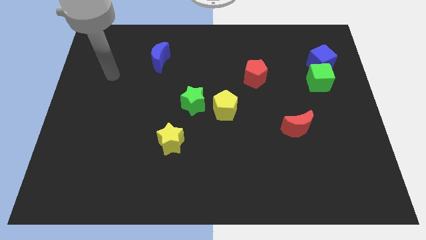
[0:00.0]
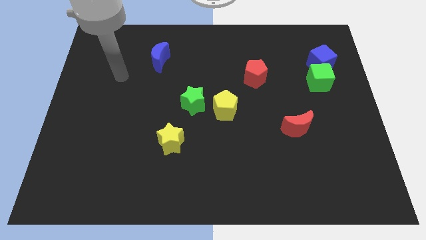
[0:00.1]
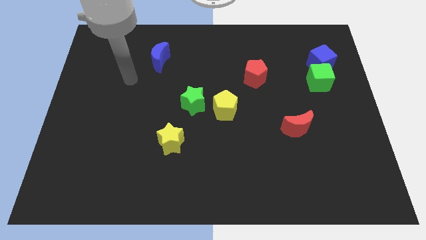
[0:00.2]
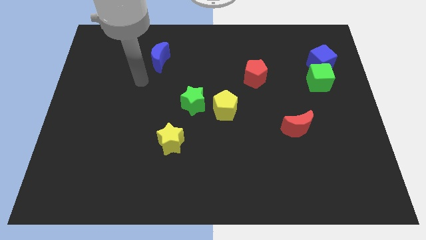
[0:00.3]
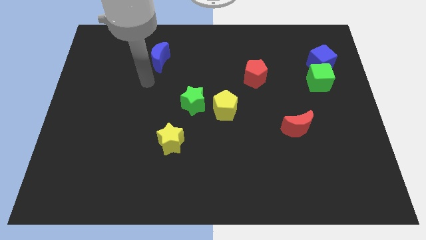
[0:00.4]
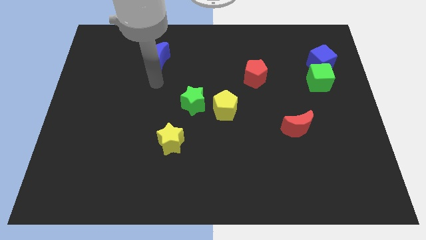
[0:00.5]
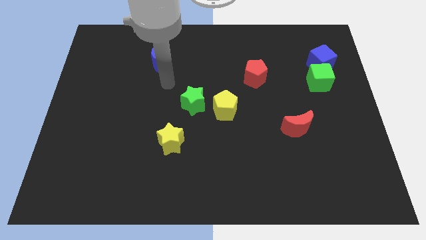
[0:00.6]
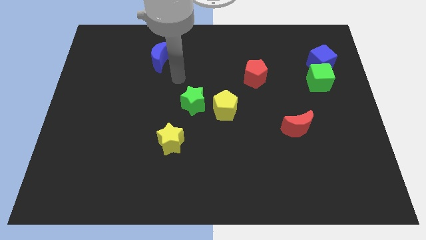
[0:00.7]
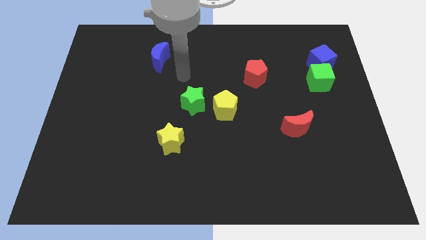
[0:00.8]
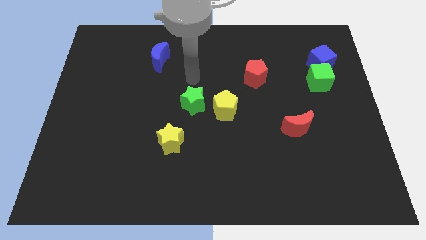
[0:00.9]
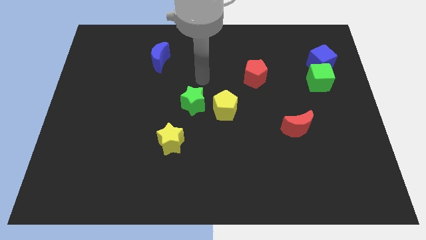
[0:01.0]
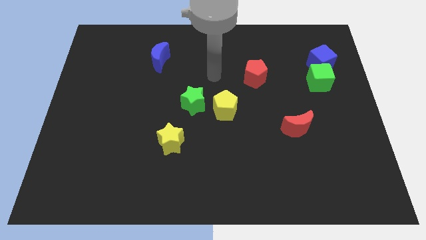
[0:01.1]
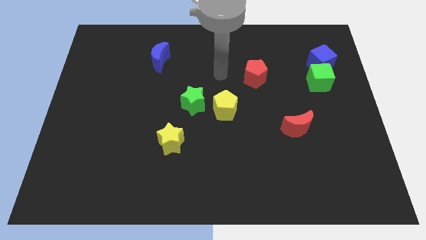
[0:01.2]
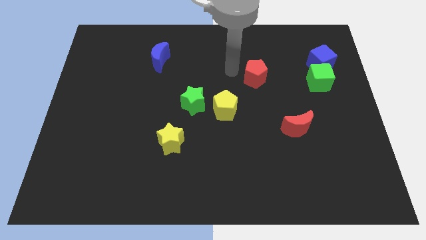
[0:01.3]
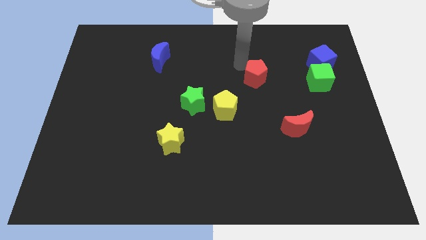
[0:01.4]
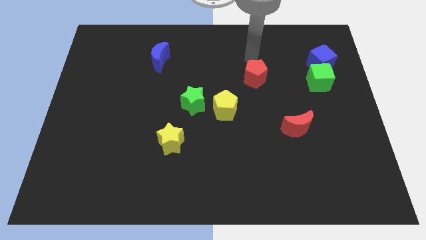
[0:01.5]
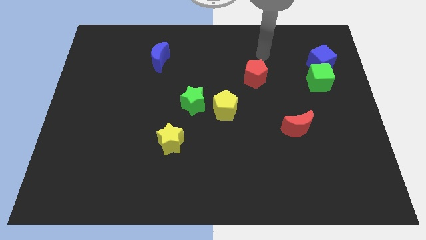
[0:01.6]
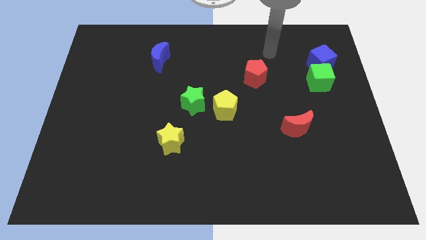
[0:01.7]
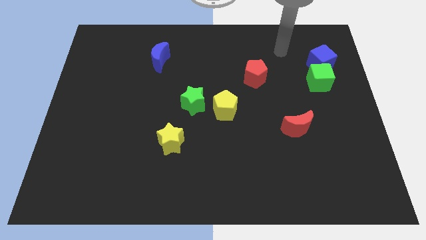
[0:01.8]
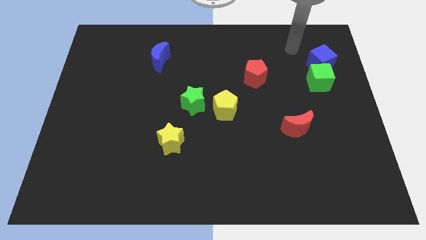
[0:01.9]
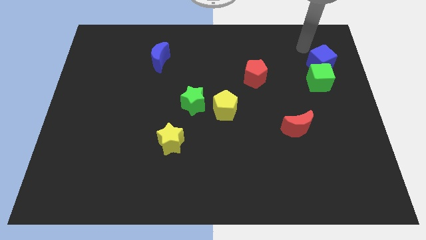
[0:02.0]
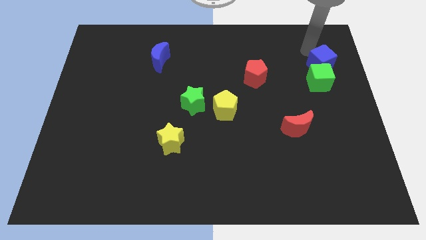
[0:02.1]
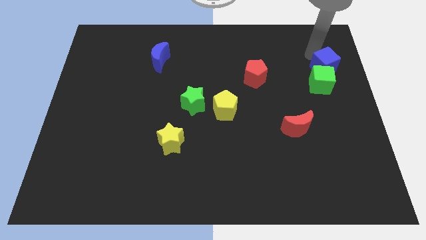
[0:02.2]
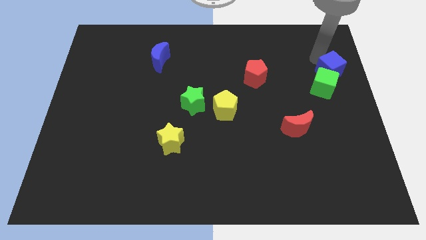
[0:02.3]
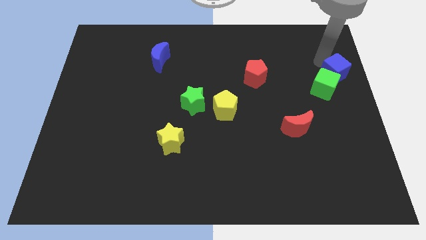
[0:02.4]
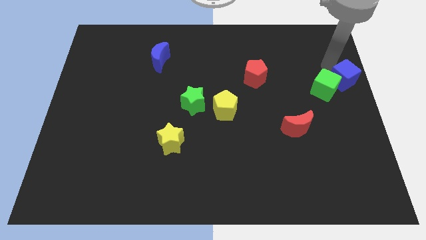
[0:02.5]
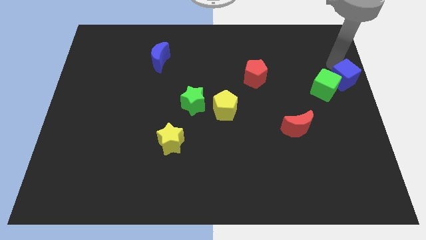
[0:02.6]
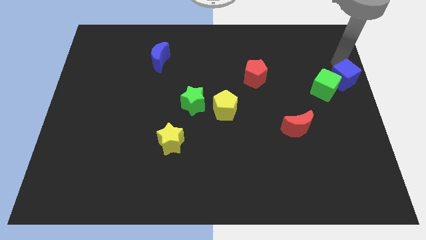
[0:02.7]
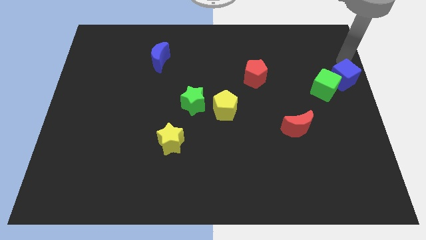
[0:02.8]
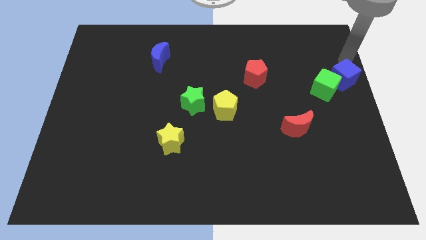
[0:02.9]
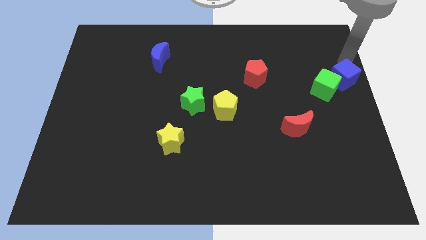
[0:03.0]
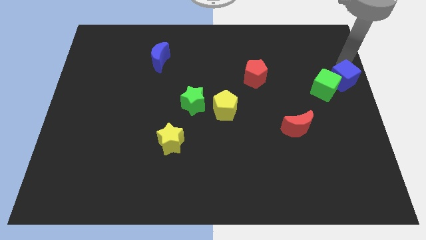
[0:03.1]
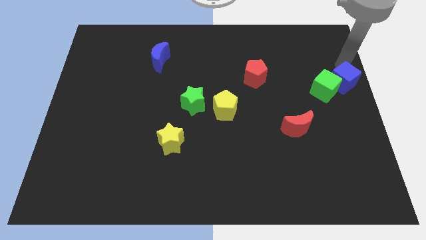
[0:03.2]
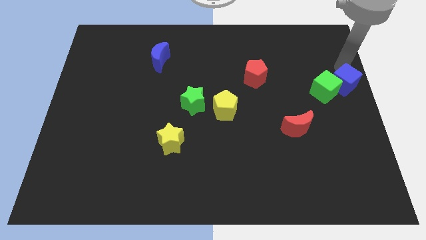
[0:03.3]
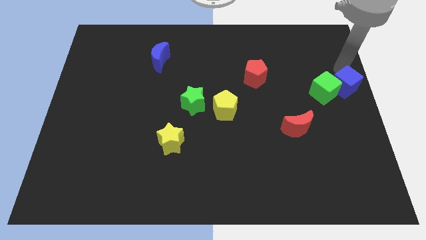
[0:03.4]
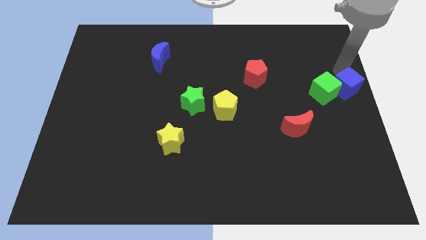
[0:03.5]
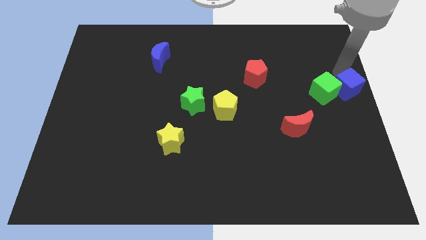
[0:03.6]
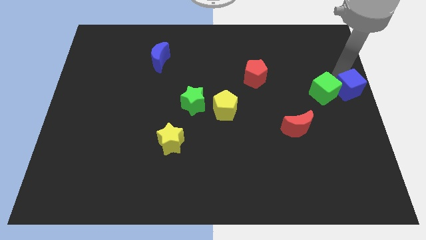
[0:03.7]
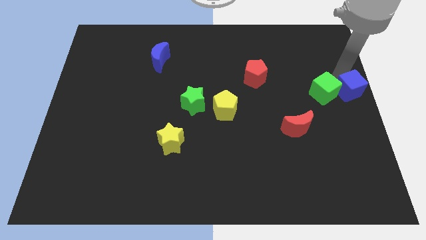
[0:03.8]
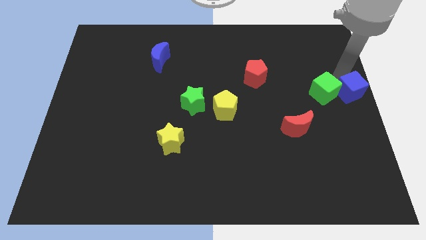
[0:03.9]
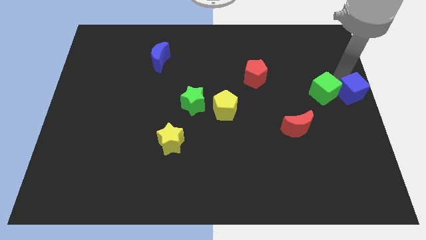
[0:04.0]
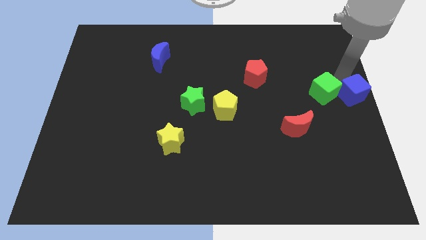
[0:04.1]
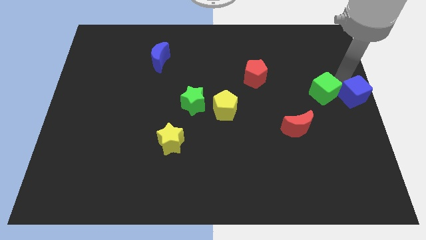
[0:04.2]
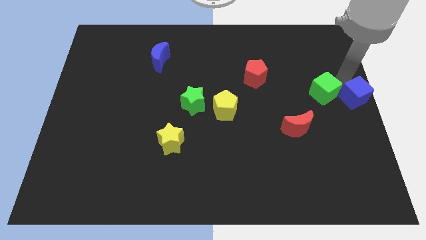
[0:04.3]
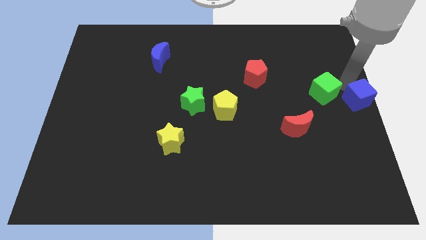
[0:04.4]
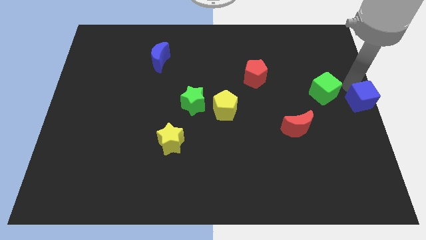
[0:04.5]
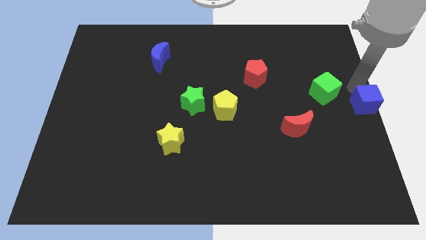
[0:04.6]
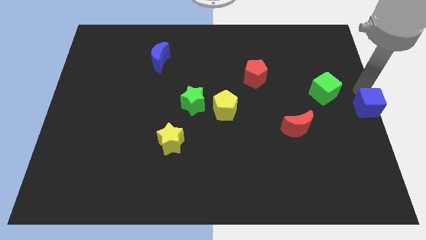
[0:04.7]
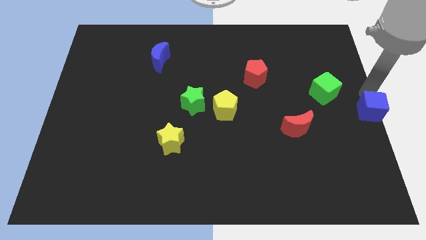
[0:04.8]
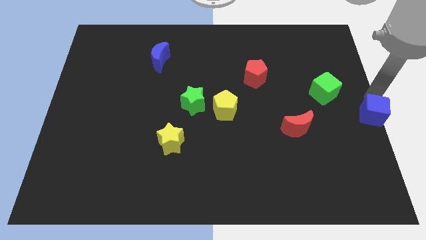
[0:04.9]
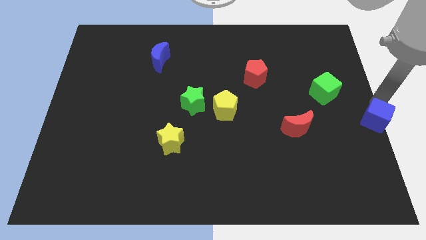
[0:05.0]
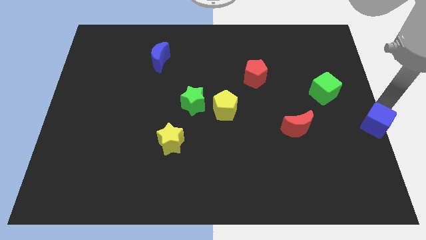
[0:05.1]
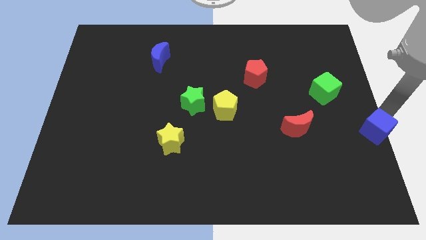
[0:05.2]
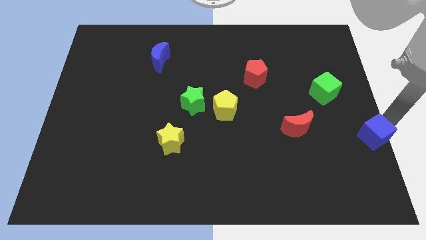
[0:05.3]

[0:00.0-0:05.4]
move the blue cube down

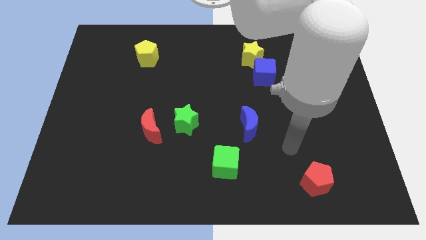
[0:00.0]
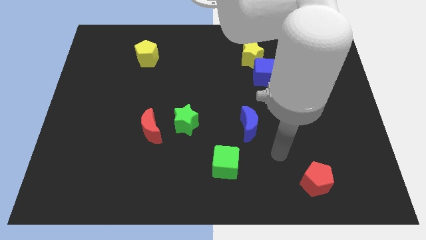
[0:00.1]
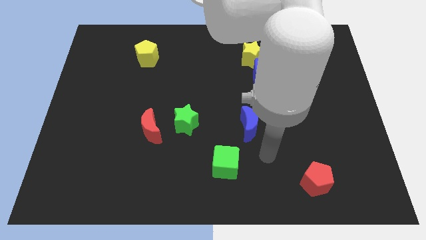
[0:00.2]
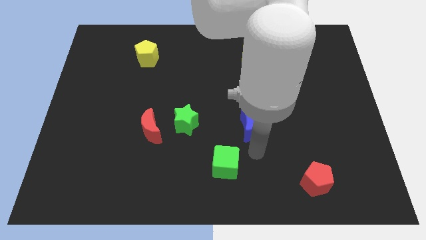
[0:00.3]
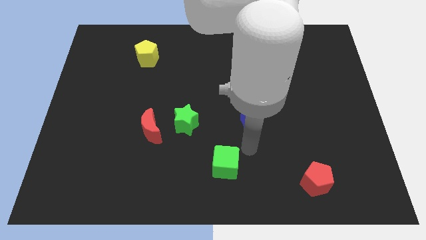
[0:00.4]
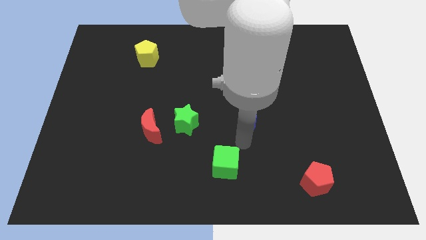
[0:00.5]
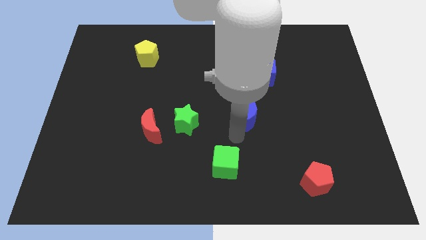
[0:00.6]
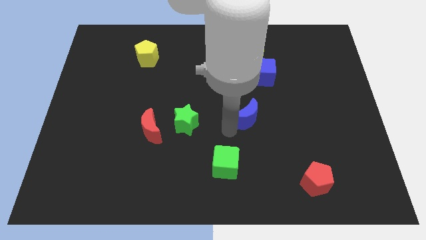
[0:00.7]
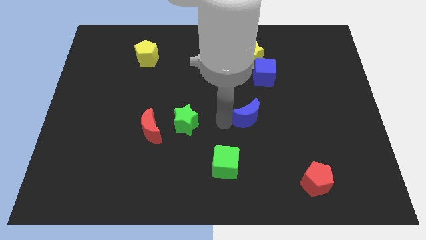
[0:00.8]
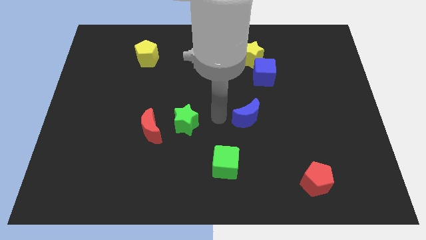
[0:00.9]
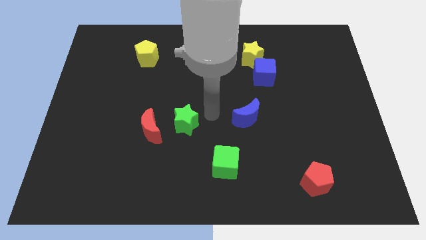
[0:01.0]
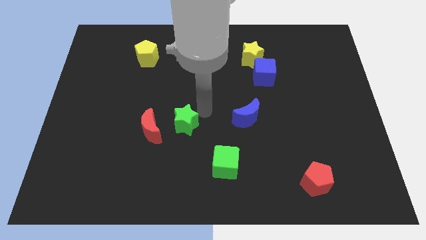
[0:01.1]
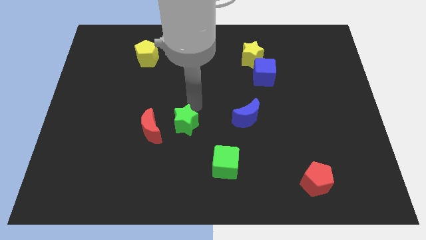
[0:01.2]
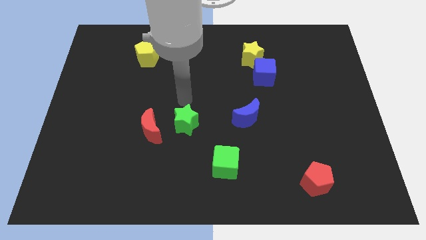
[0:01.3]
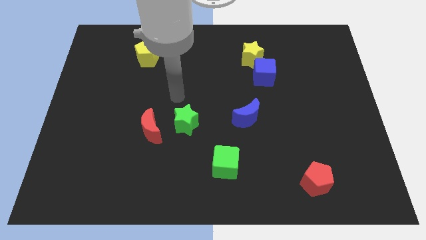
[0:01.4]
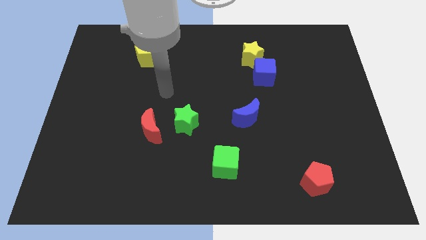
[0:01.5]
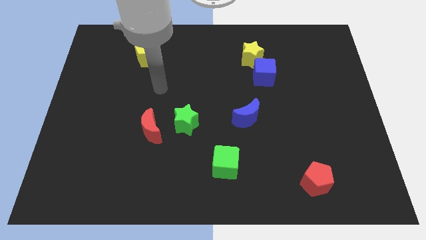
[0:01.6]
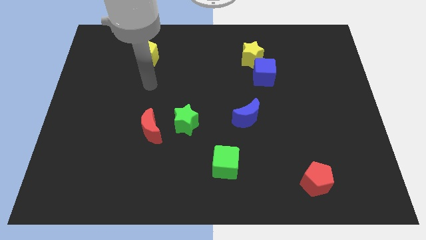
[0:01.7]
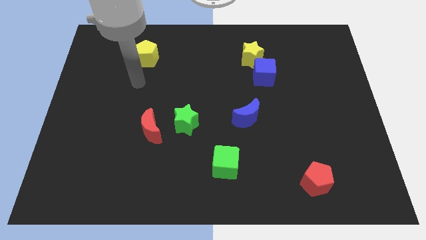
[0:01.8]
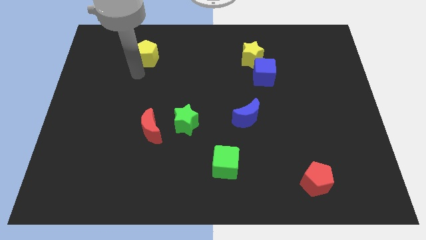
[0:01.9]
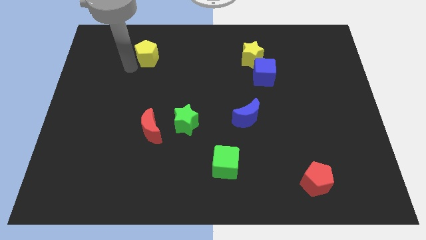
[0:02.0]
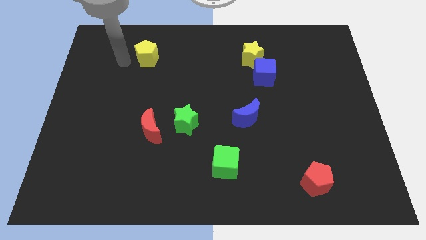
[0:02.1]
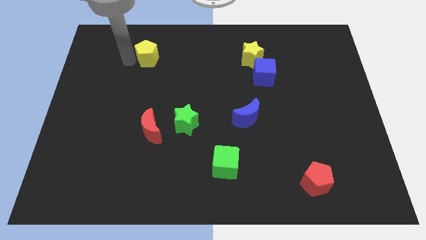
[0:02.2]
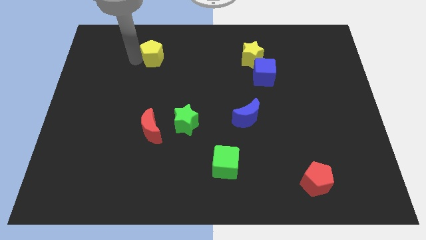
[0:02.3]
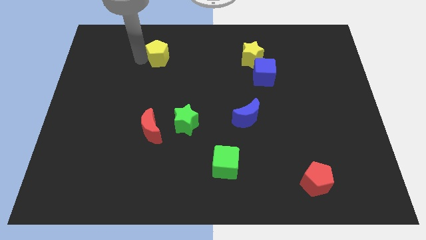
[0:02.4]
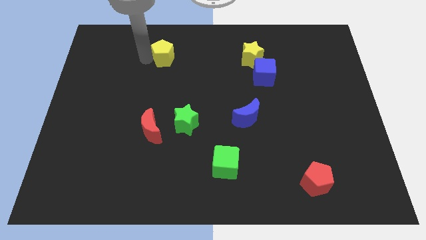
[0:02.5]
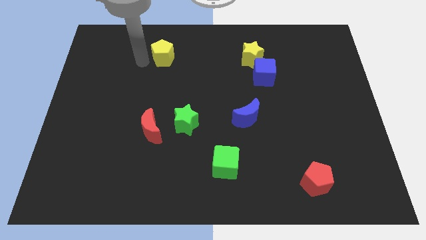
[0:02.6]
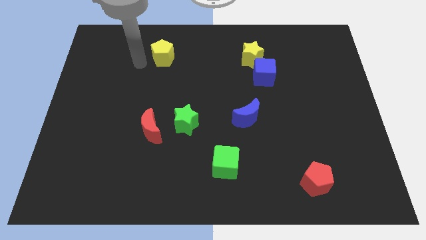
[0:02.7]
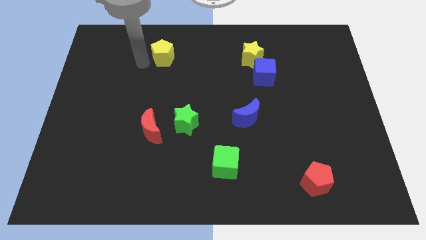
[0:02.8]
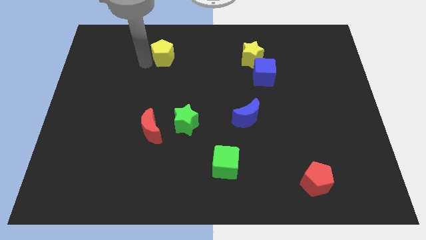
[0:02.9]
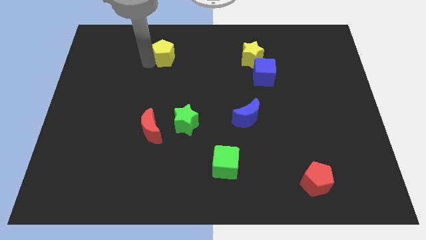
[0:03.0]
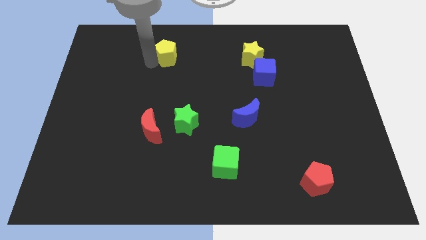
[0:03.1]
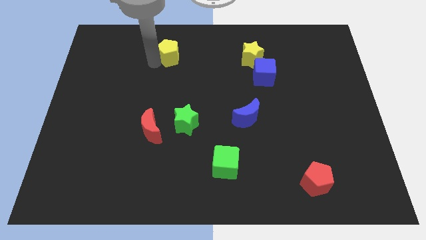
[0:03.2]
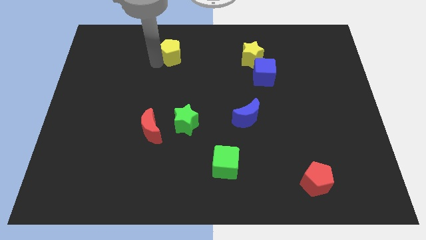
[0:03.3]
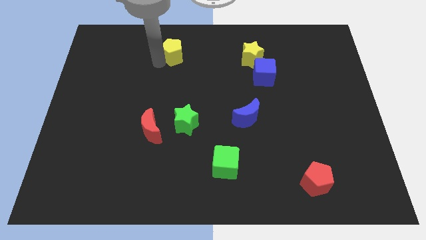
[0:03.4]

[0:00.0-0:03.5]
slide the yellow pentagon a bit right
